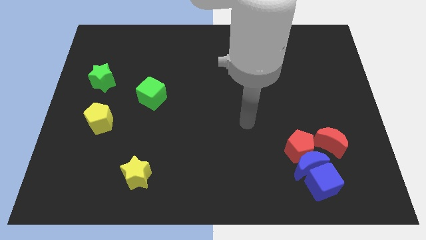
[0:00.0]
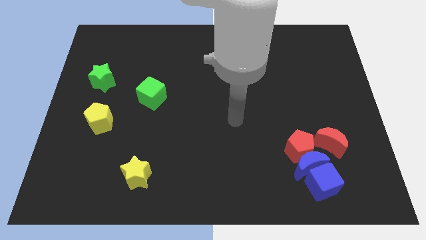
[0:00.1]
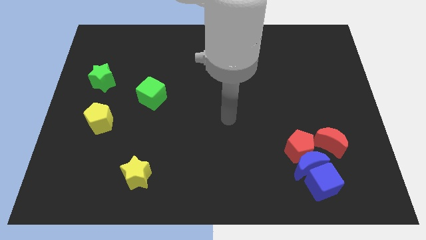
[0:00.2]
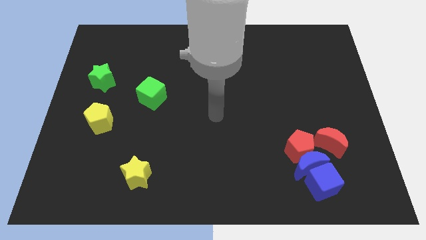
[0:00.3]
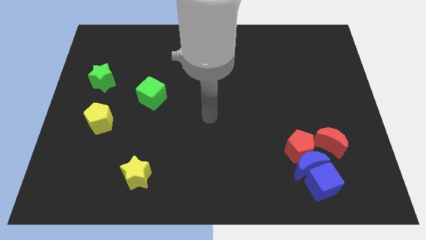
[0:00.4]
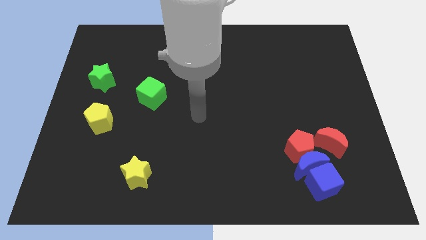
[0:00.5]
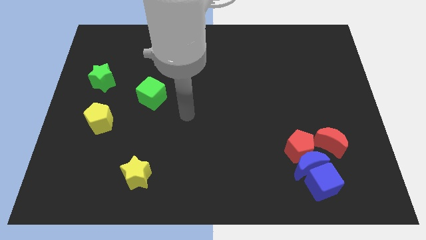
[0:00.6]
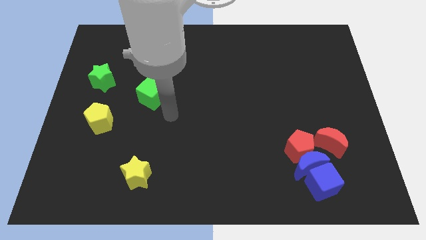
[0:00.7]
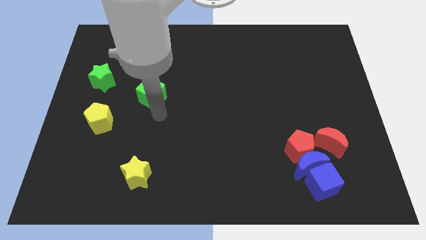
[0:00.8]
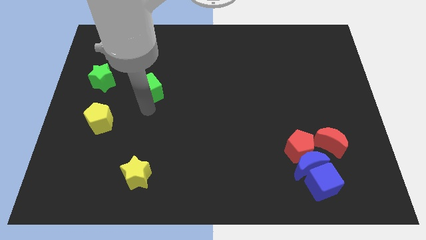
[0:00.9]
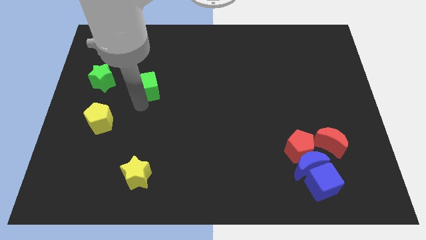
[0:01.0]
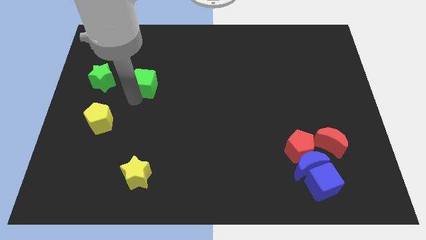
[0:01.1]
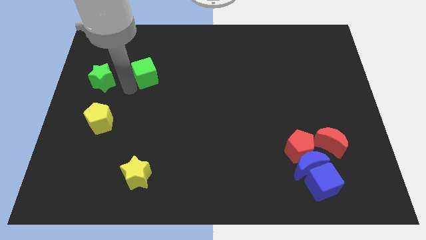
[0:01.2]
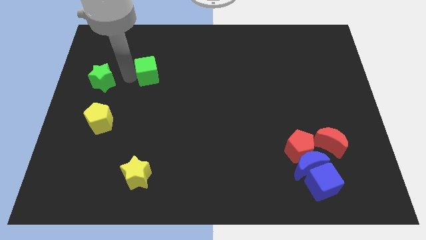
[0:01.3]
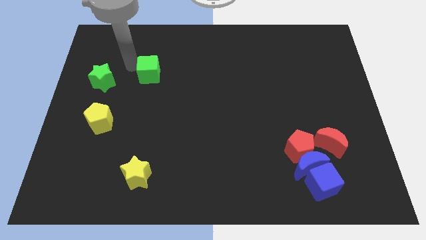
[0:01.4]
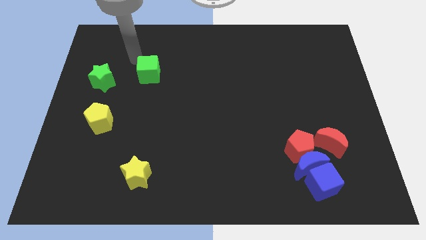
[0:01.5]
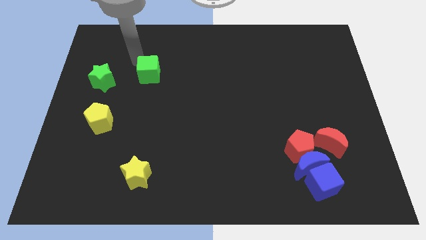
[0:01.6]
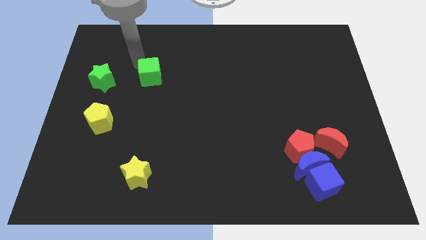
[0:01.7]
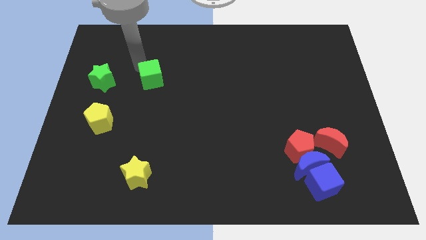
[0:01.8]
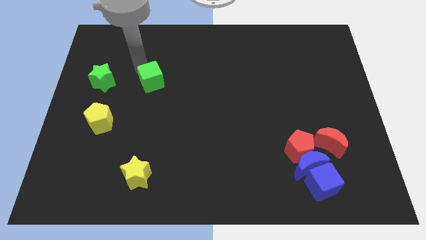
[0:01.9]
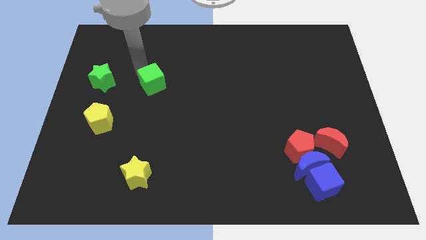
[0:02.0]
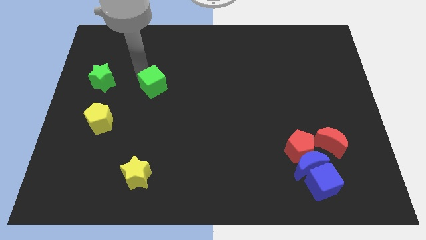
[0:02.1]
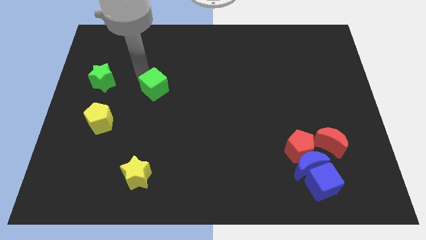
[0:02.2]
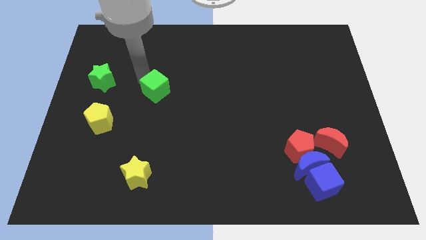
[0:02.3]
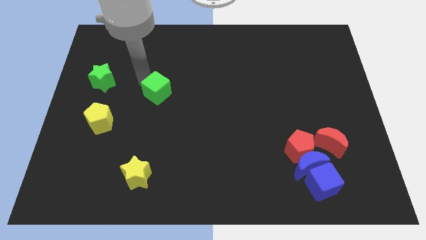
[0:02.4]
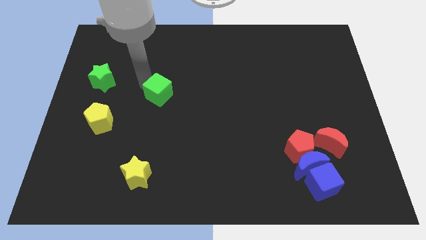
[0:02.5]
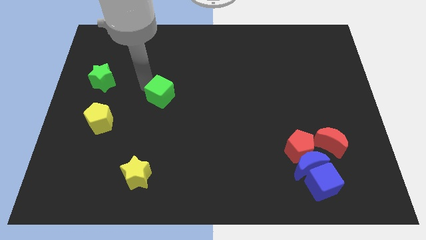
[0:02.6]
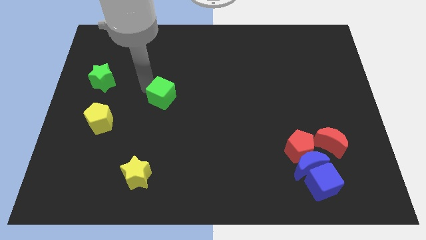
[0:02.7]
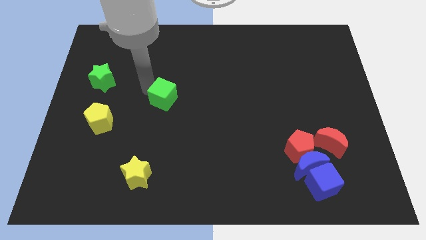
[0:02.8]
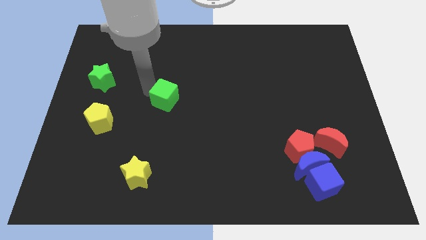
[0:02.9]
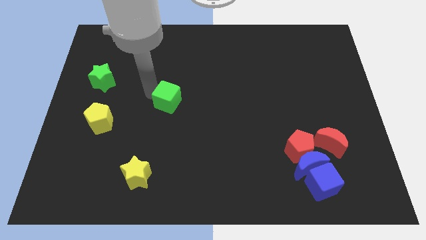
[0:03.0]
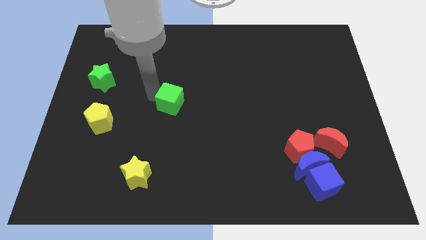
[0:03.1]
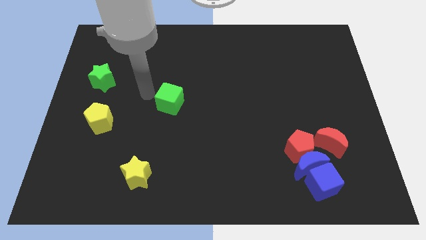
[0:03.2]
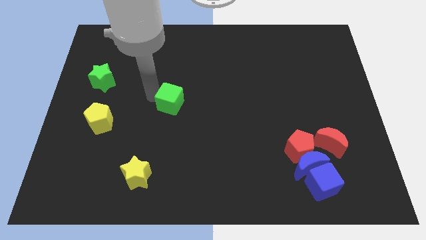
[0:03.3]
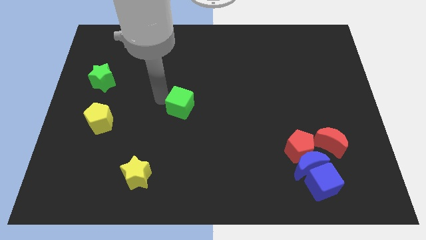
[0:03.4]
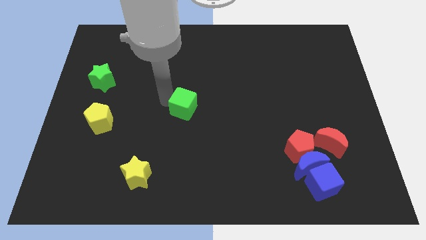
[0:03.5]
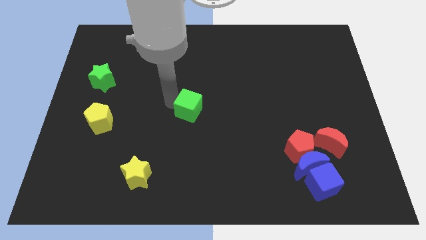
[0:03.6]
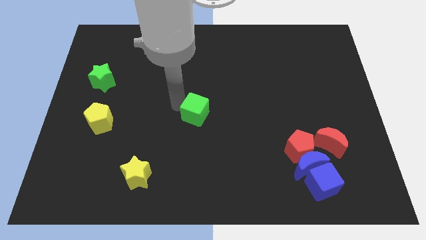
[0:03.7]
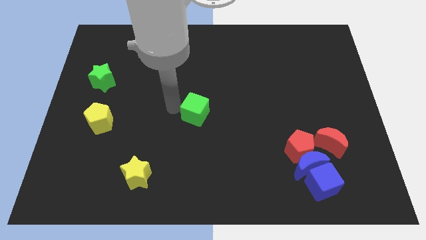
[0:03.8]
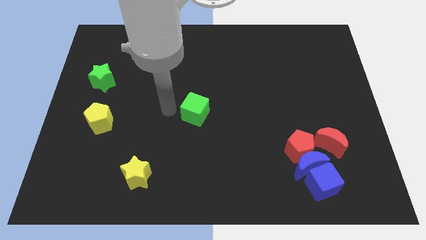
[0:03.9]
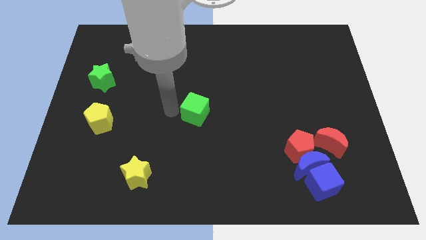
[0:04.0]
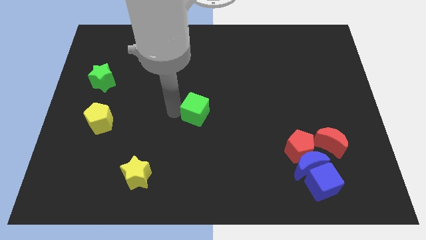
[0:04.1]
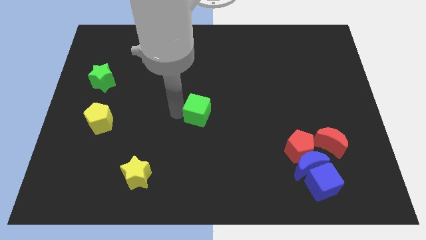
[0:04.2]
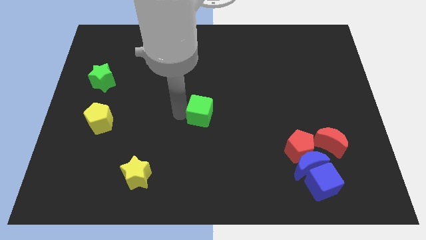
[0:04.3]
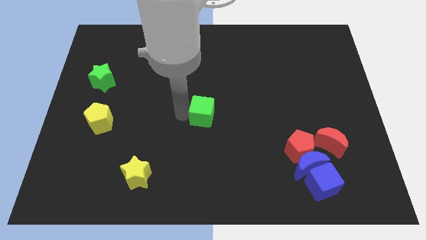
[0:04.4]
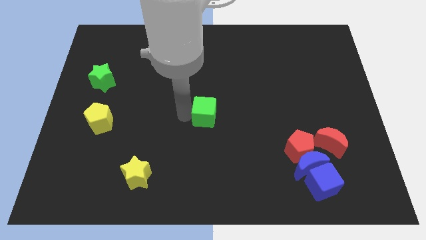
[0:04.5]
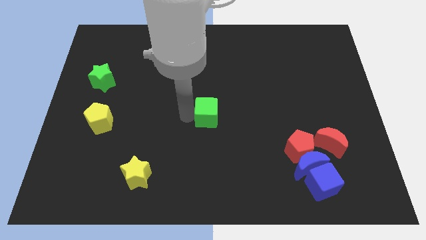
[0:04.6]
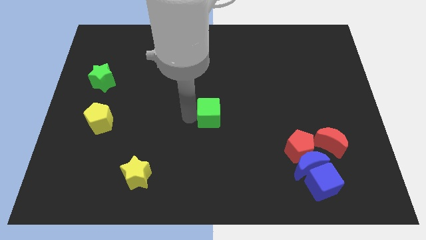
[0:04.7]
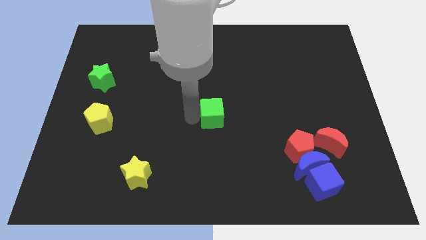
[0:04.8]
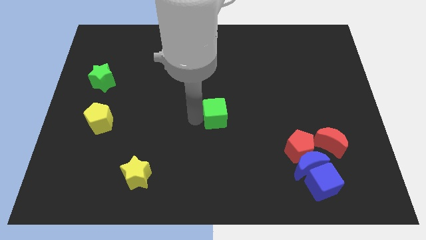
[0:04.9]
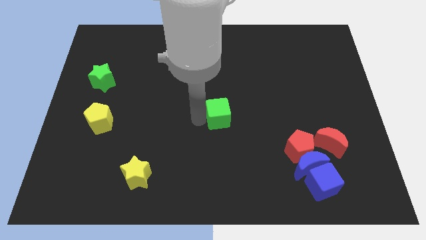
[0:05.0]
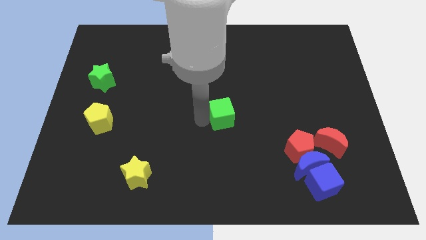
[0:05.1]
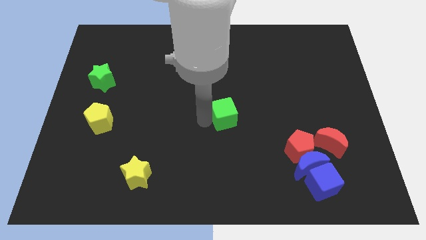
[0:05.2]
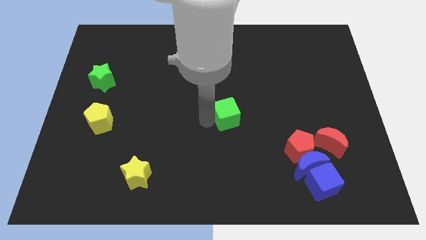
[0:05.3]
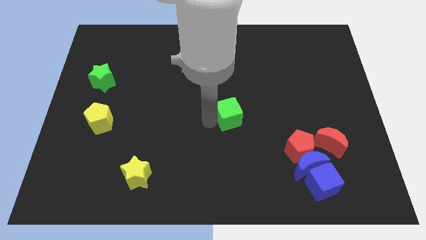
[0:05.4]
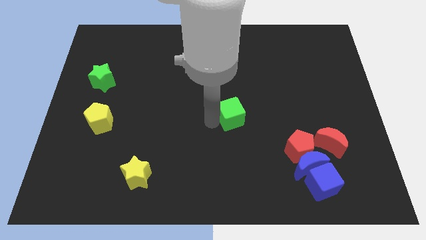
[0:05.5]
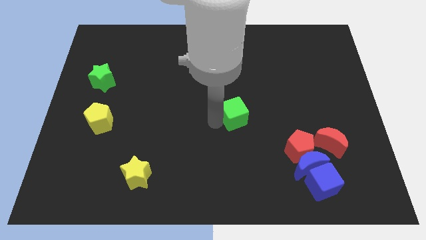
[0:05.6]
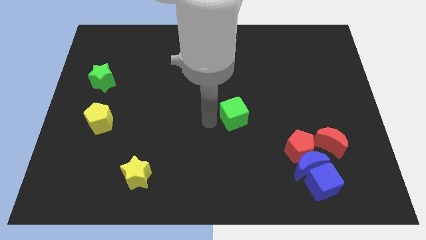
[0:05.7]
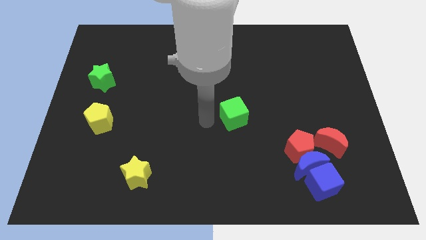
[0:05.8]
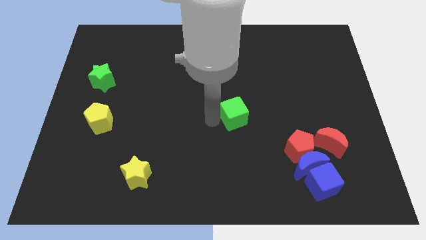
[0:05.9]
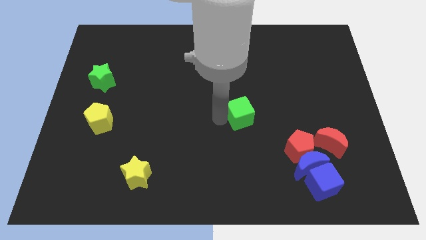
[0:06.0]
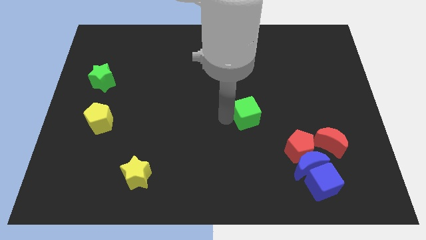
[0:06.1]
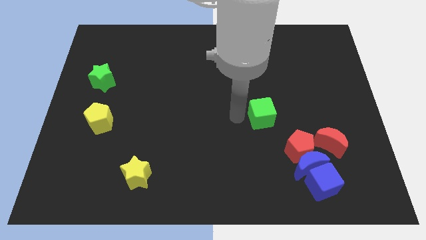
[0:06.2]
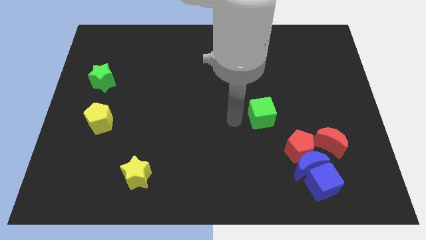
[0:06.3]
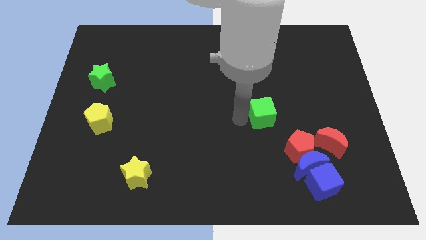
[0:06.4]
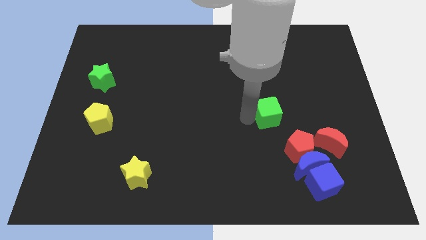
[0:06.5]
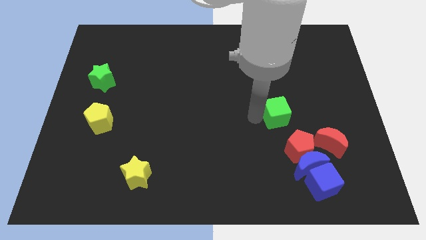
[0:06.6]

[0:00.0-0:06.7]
slide the green cube to the top of the red pentagon
